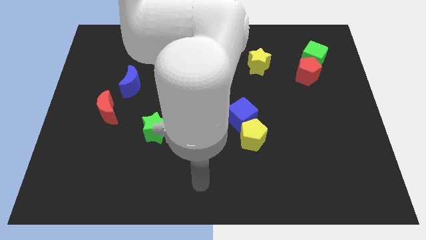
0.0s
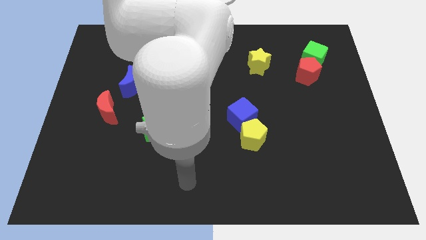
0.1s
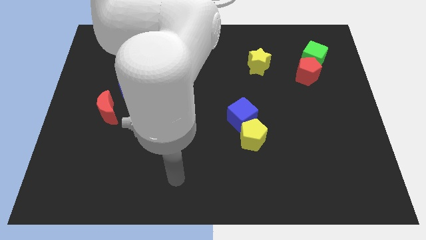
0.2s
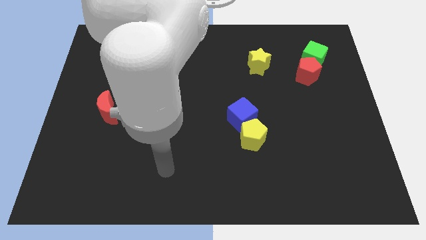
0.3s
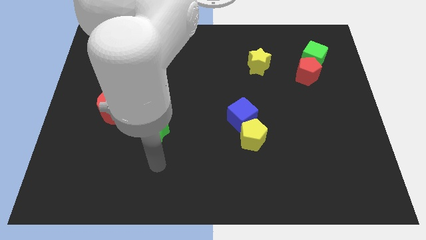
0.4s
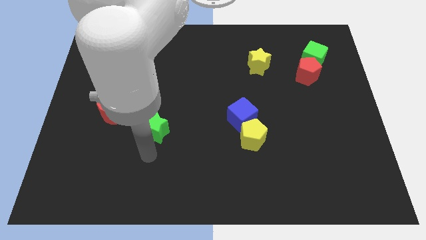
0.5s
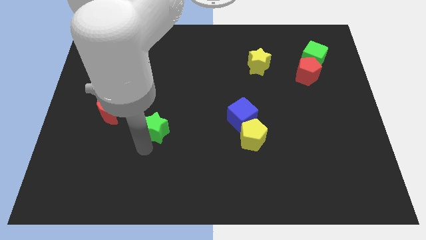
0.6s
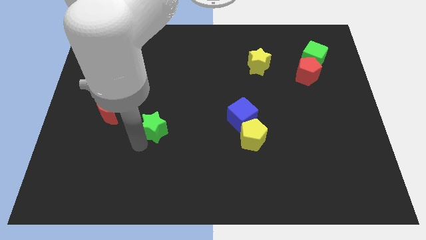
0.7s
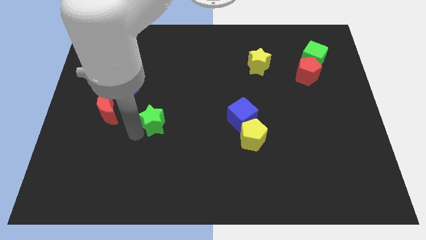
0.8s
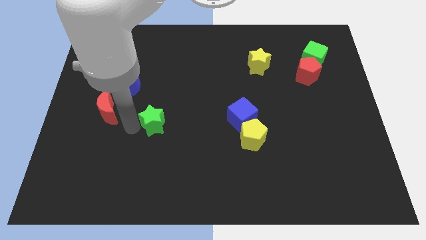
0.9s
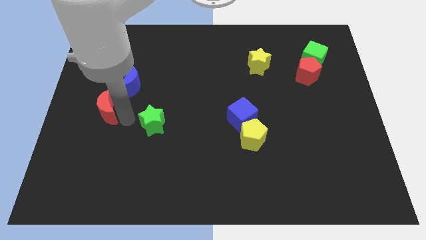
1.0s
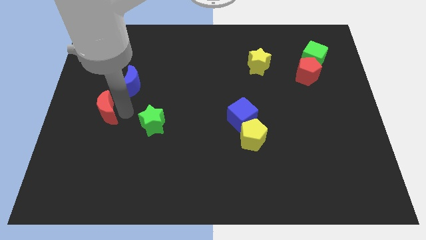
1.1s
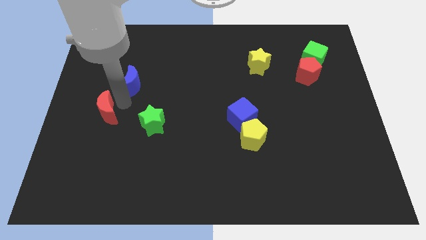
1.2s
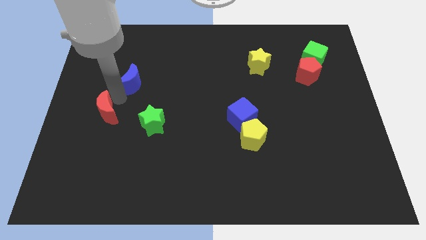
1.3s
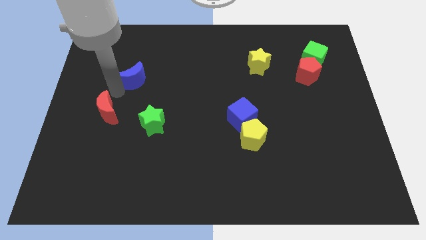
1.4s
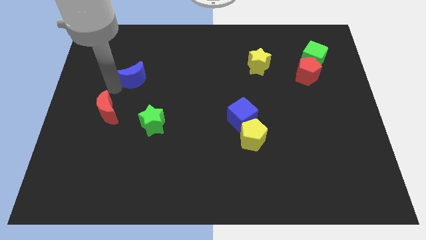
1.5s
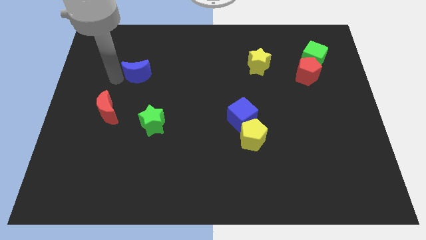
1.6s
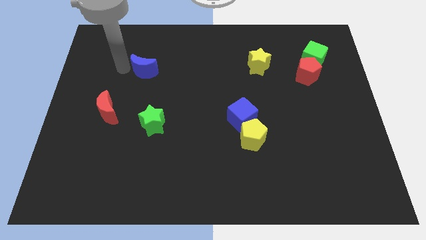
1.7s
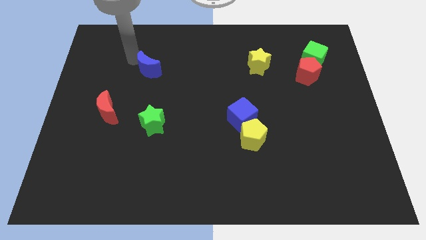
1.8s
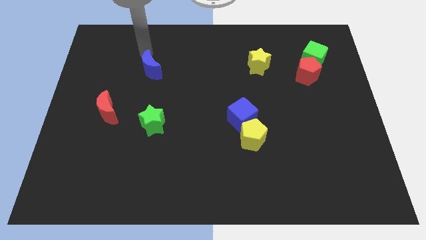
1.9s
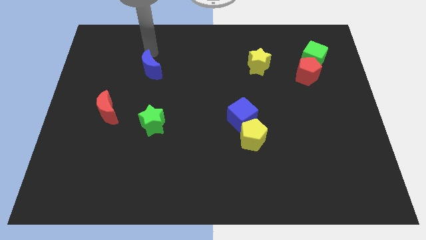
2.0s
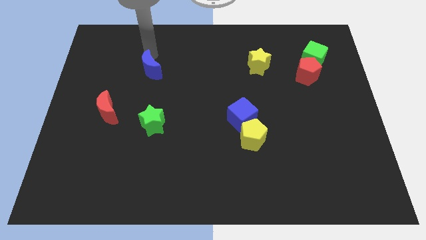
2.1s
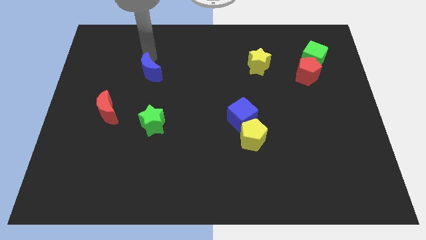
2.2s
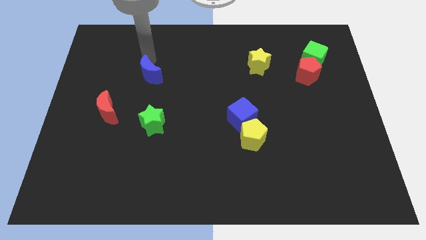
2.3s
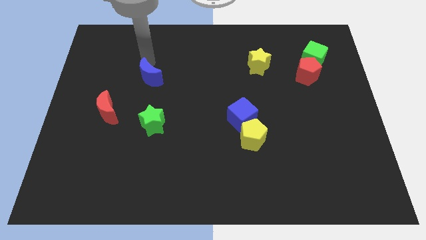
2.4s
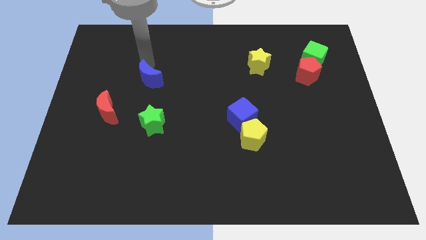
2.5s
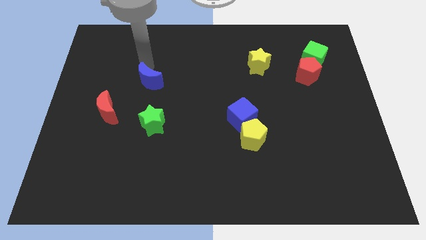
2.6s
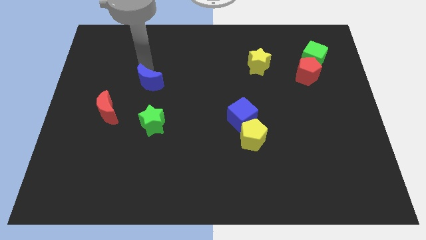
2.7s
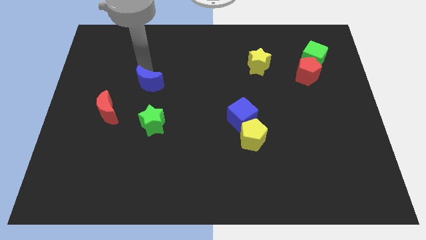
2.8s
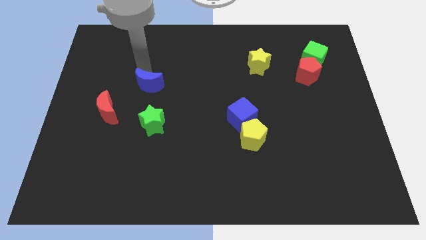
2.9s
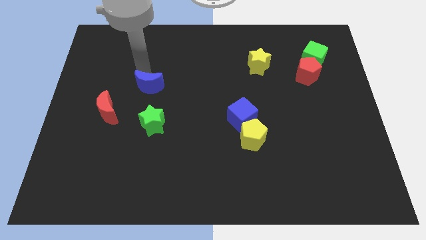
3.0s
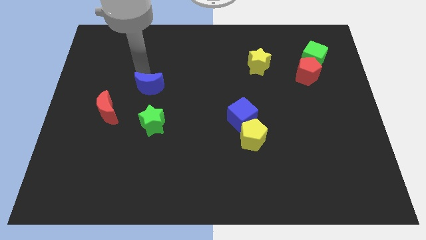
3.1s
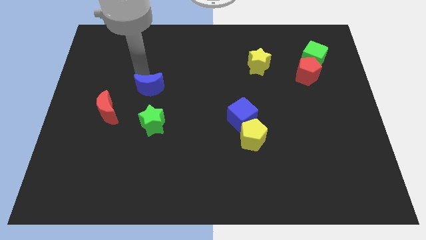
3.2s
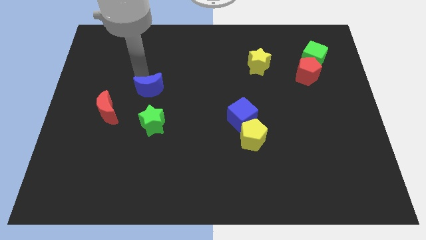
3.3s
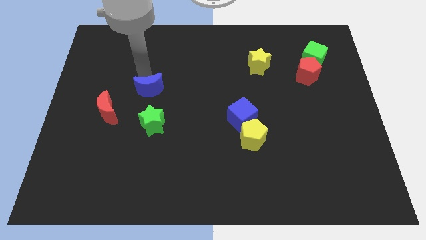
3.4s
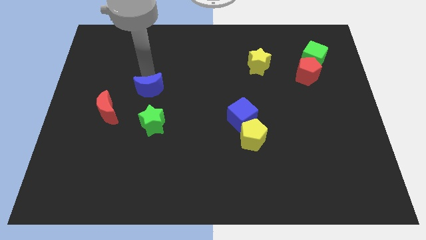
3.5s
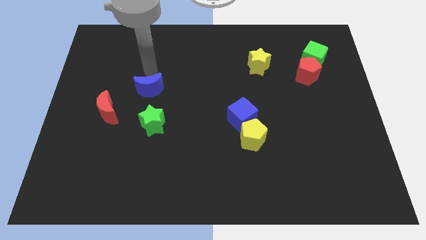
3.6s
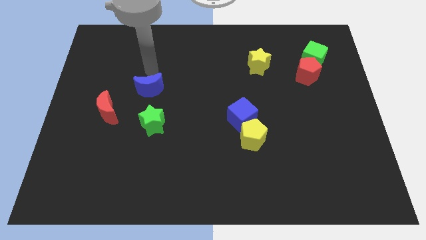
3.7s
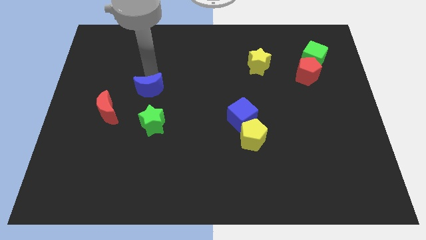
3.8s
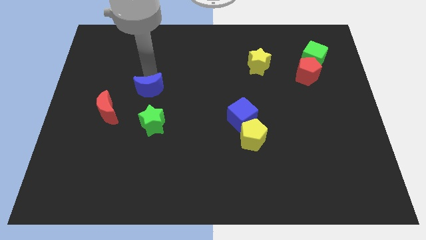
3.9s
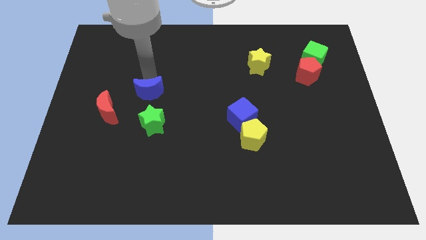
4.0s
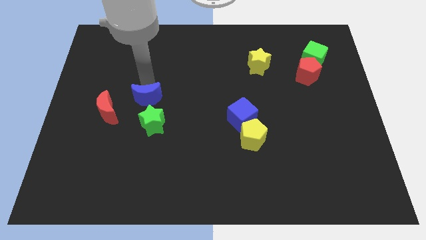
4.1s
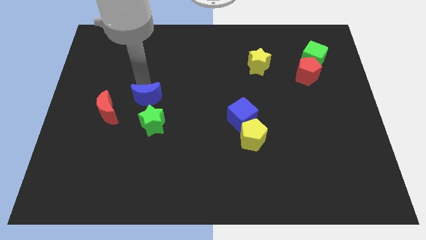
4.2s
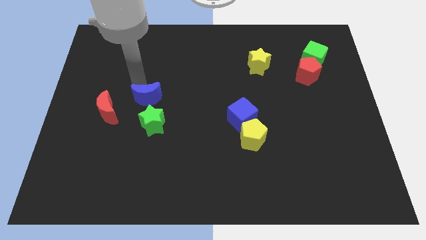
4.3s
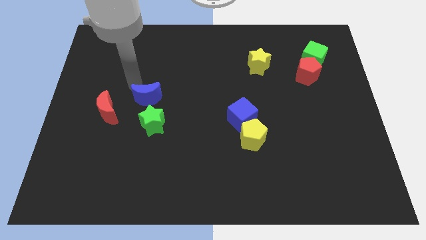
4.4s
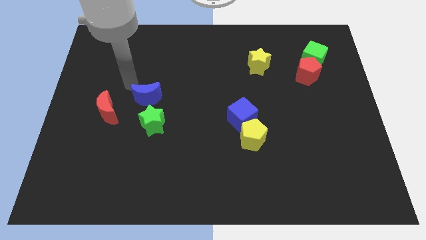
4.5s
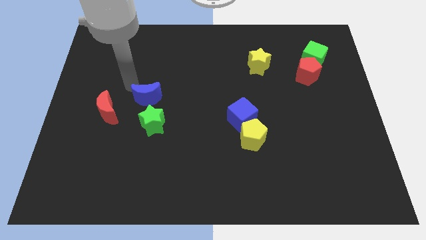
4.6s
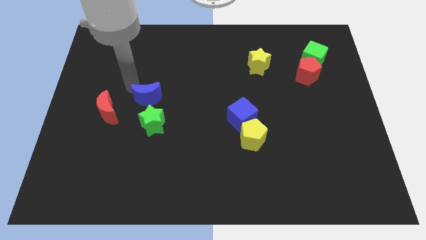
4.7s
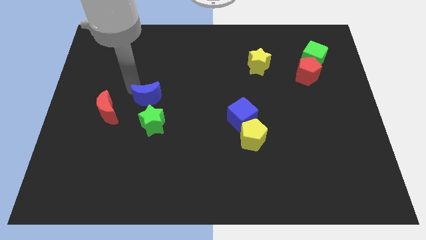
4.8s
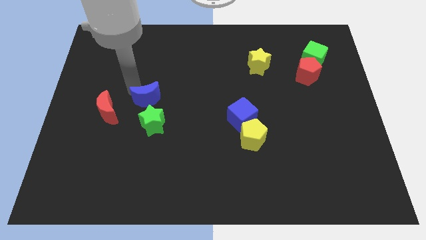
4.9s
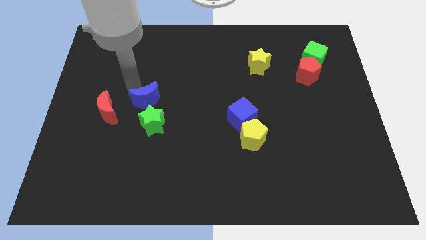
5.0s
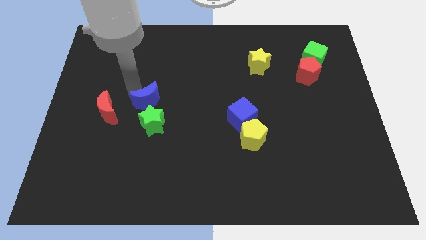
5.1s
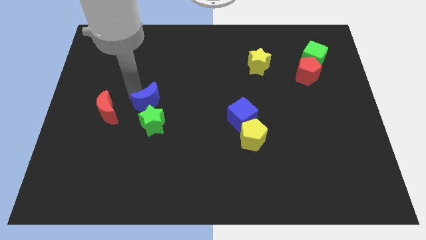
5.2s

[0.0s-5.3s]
push the blue moon downwards and right a little bit

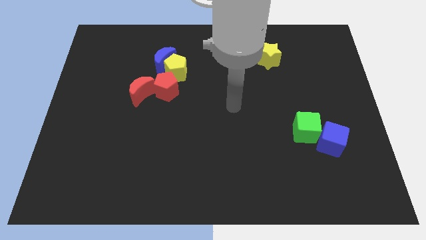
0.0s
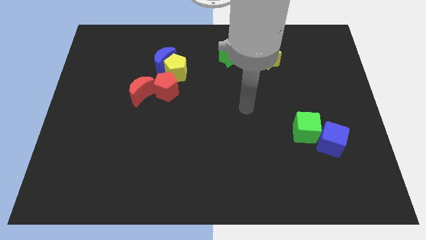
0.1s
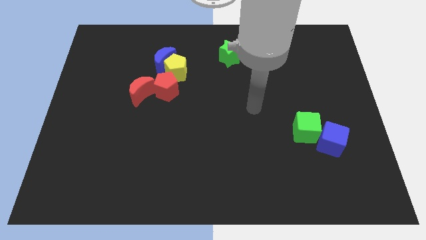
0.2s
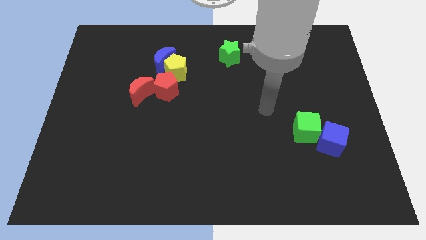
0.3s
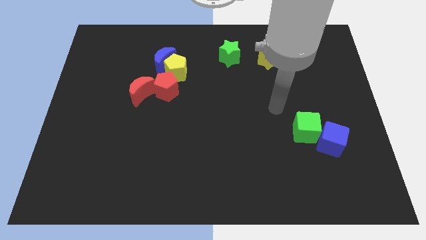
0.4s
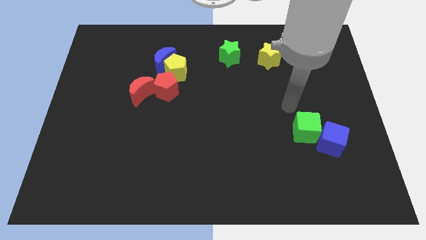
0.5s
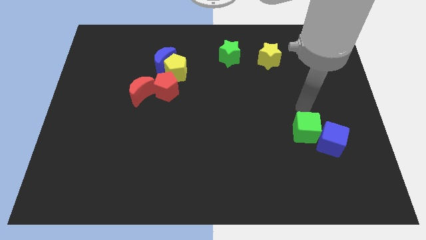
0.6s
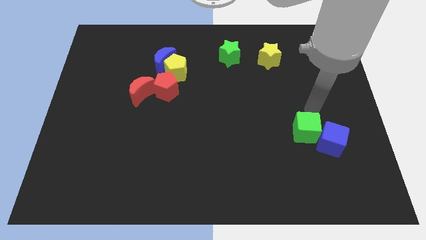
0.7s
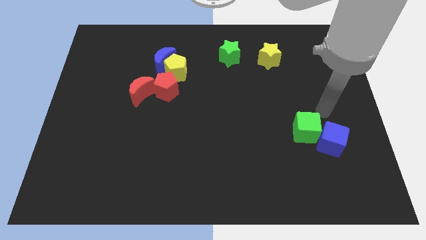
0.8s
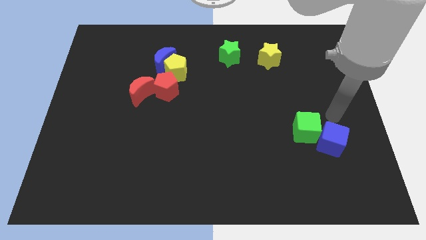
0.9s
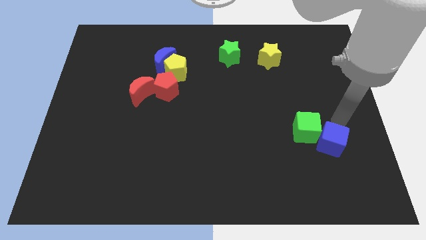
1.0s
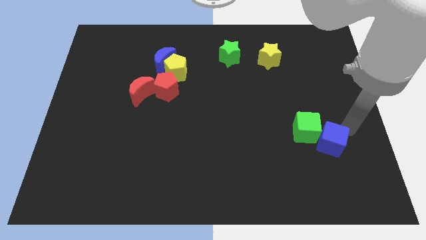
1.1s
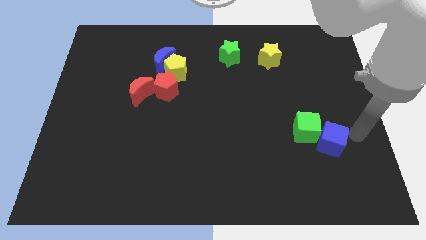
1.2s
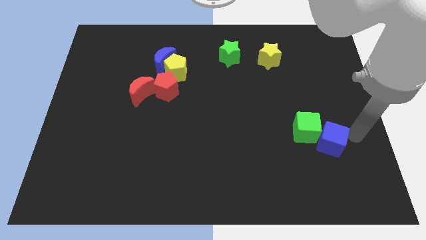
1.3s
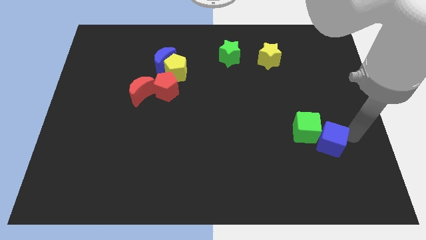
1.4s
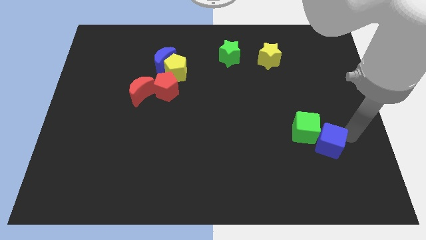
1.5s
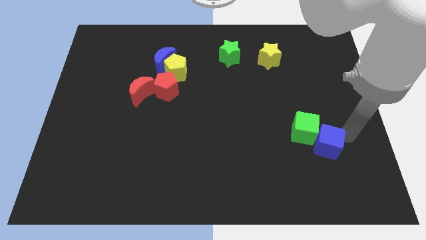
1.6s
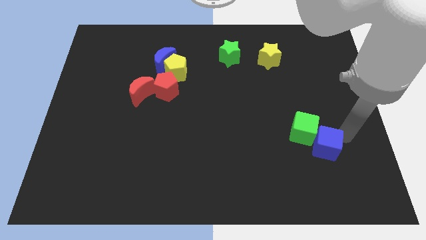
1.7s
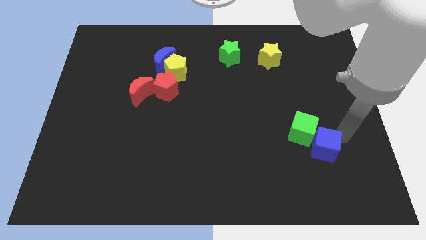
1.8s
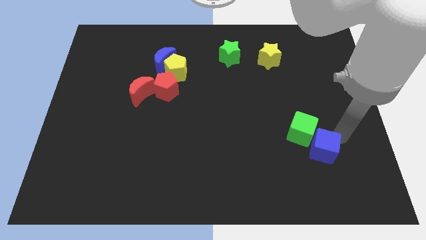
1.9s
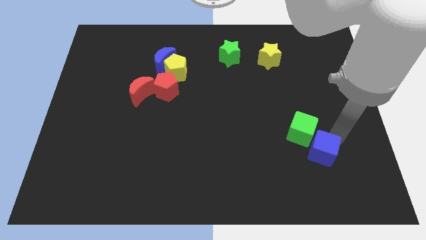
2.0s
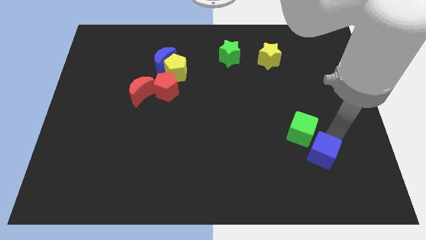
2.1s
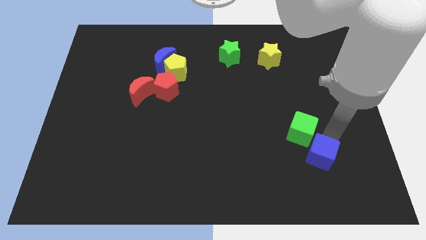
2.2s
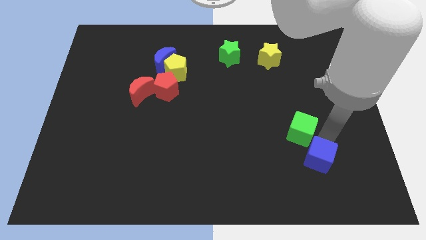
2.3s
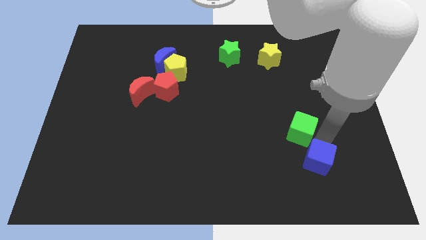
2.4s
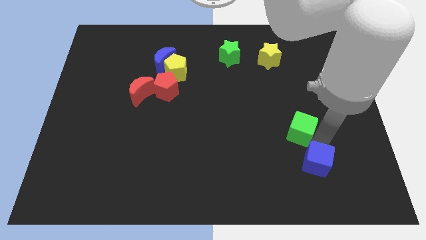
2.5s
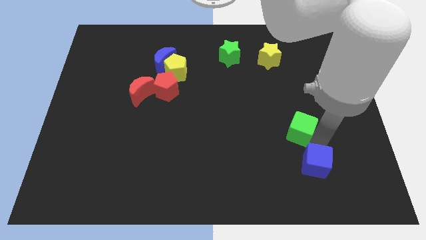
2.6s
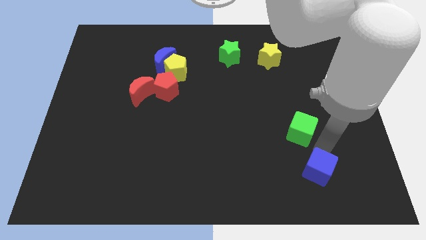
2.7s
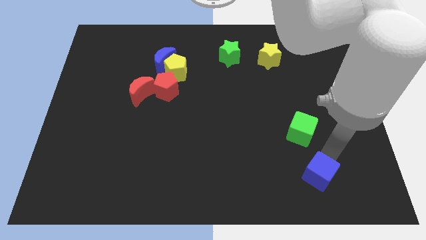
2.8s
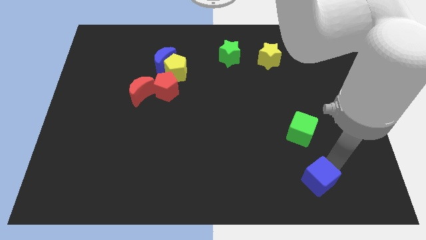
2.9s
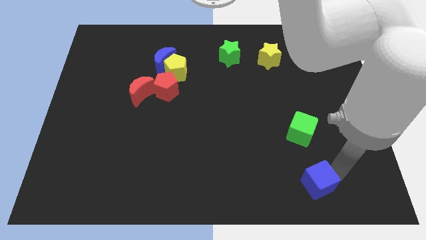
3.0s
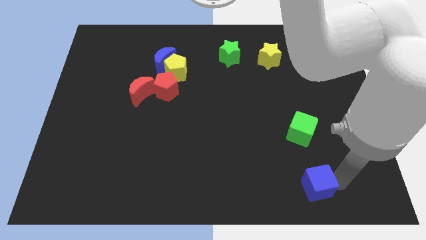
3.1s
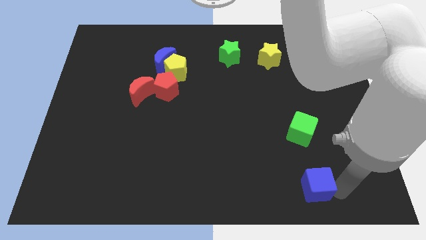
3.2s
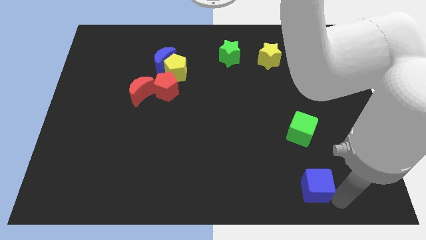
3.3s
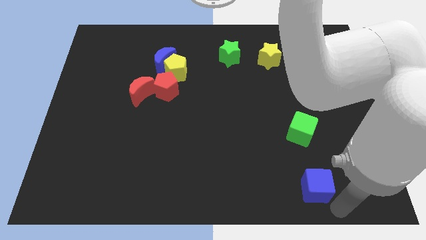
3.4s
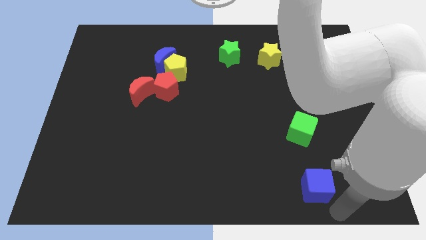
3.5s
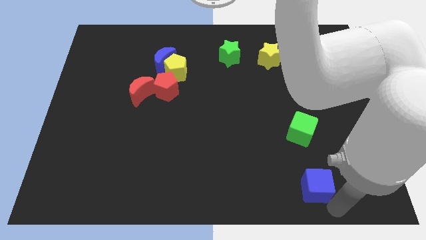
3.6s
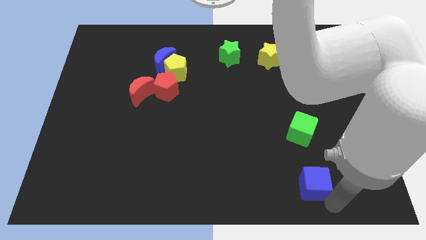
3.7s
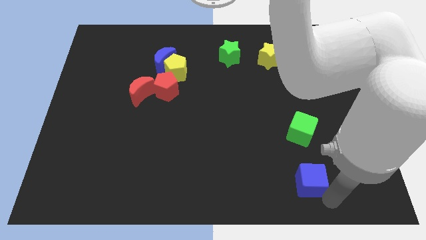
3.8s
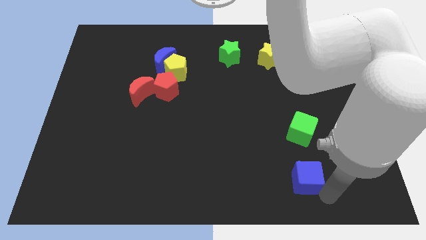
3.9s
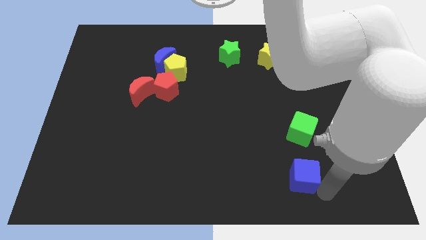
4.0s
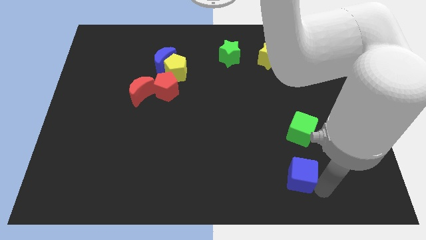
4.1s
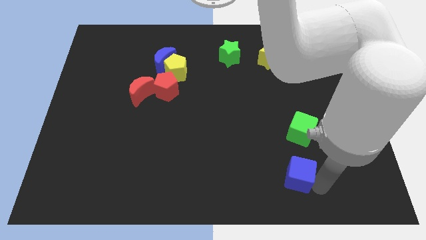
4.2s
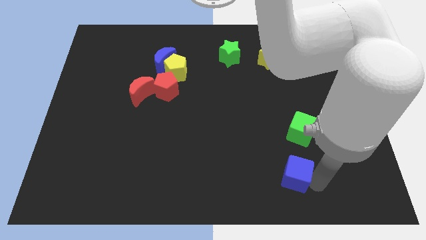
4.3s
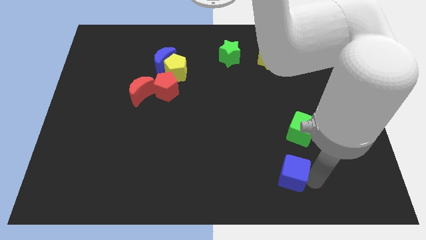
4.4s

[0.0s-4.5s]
slide the blue cube somewhat left
